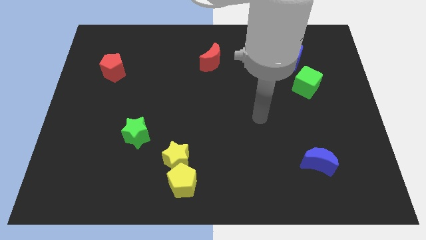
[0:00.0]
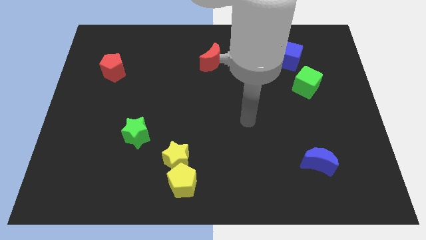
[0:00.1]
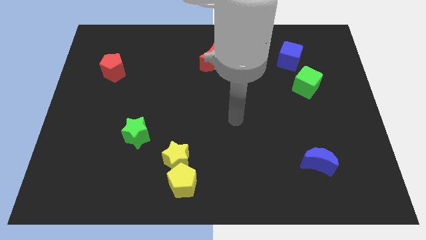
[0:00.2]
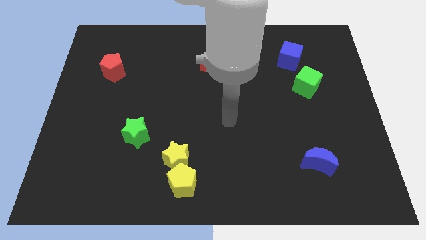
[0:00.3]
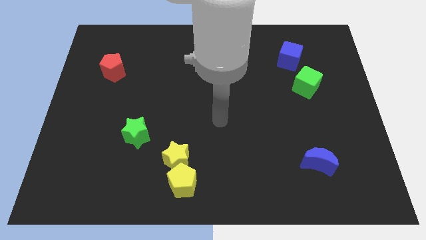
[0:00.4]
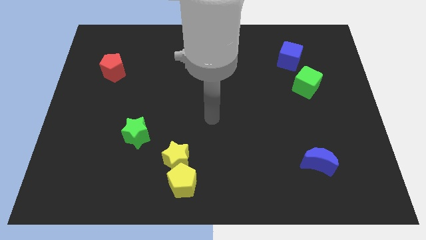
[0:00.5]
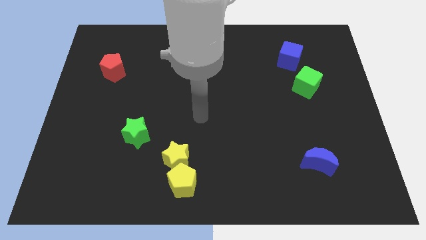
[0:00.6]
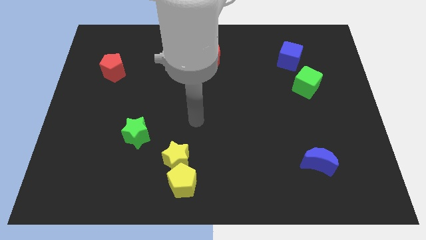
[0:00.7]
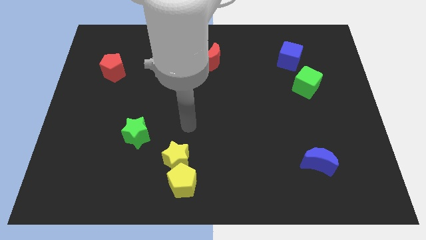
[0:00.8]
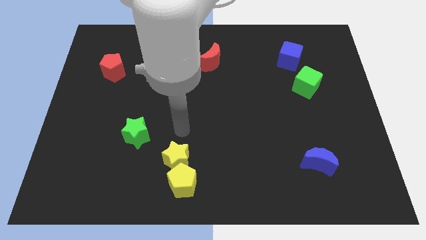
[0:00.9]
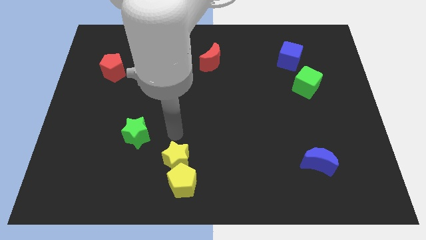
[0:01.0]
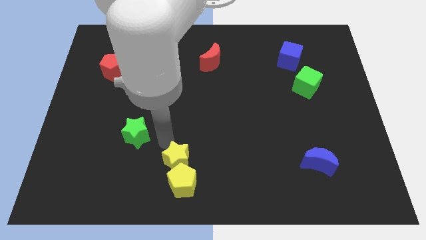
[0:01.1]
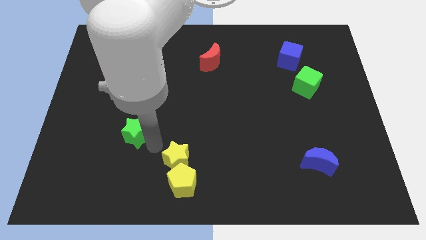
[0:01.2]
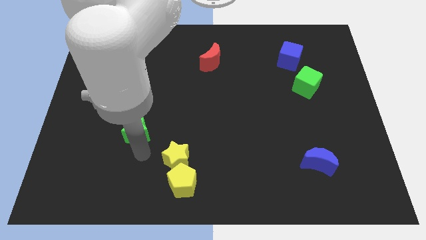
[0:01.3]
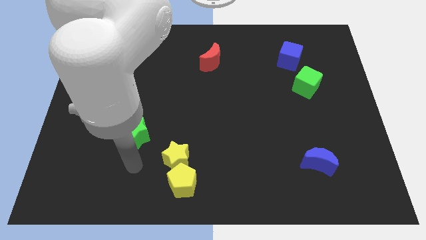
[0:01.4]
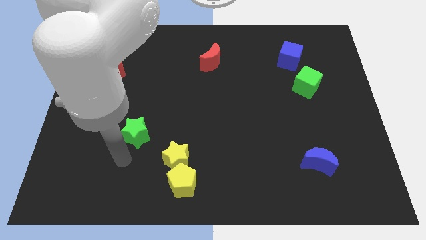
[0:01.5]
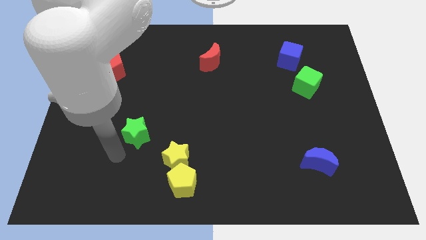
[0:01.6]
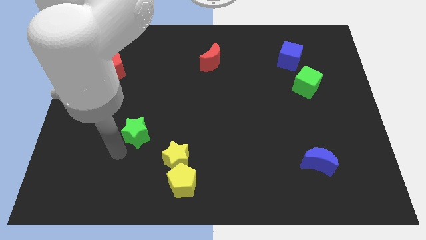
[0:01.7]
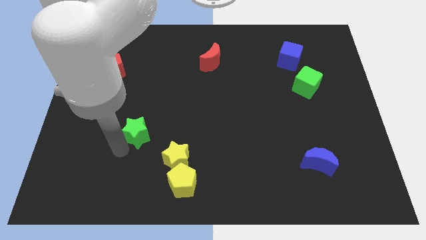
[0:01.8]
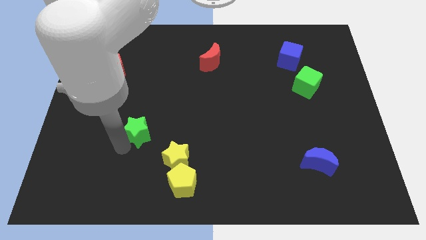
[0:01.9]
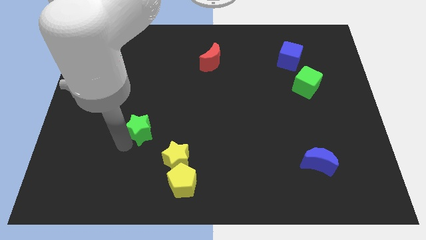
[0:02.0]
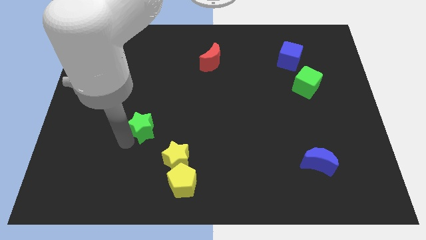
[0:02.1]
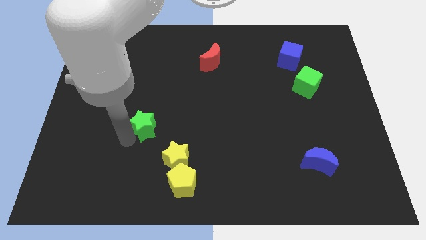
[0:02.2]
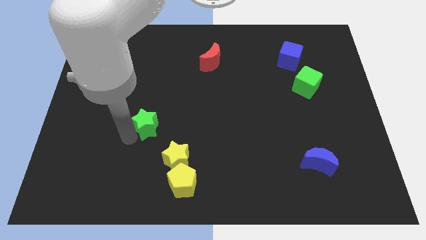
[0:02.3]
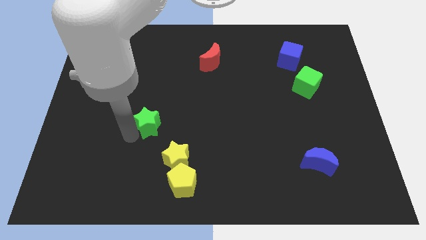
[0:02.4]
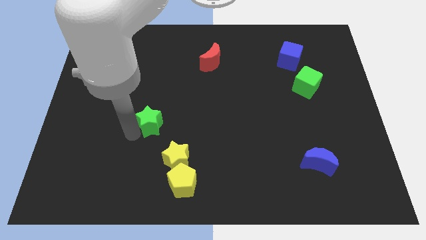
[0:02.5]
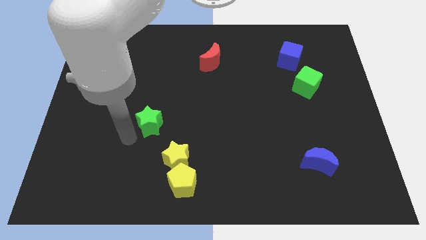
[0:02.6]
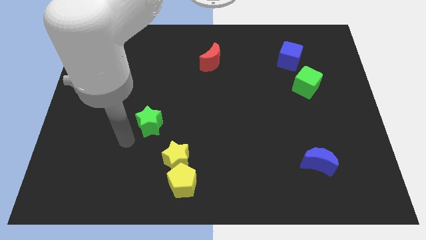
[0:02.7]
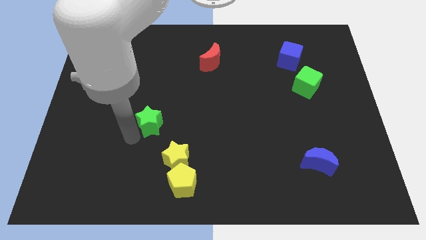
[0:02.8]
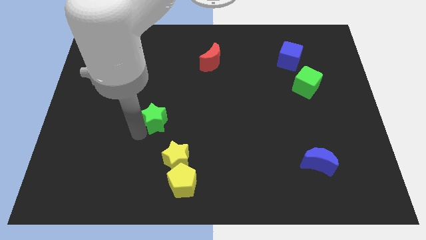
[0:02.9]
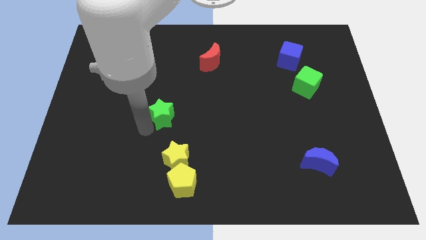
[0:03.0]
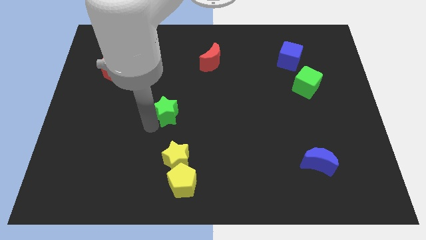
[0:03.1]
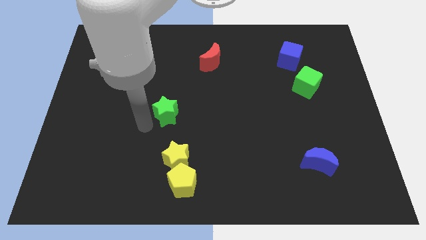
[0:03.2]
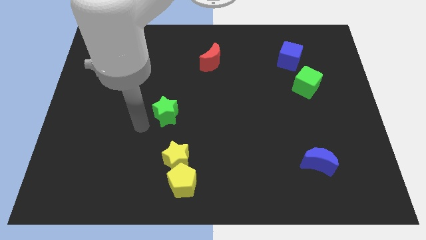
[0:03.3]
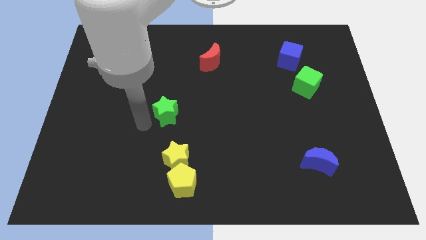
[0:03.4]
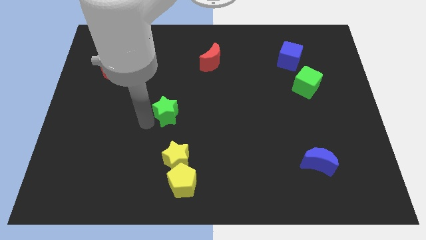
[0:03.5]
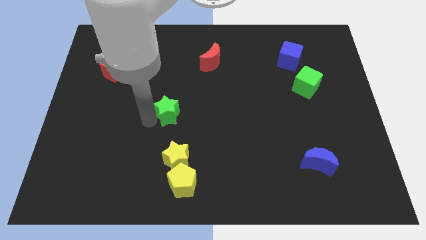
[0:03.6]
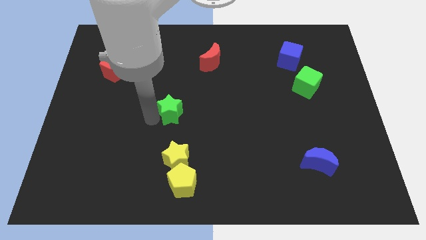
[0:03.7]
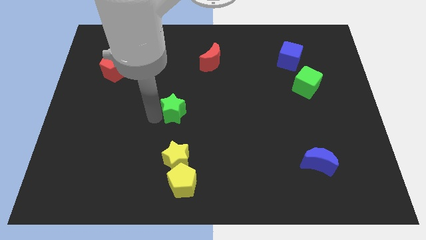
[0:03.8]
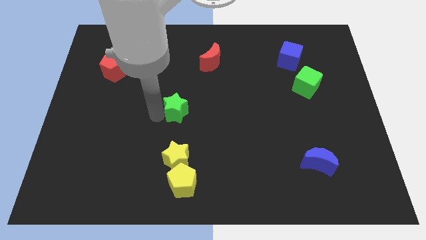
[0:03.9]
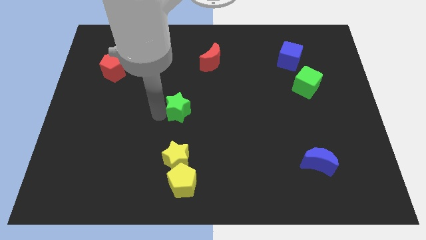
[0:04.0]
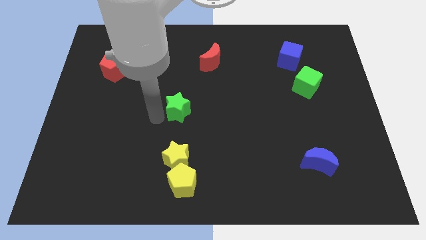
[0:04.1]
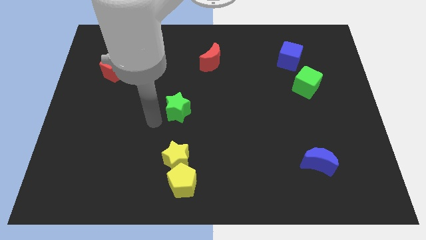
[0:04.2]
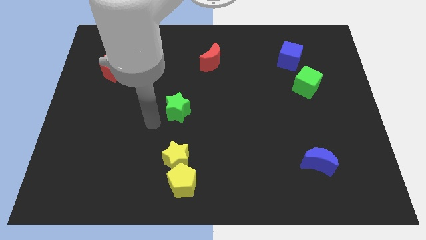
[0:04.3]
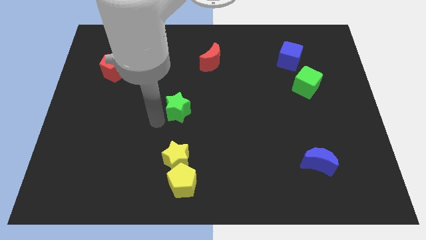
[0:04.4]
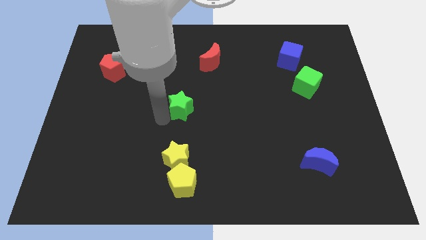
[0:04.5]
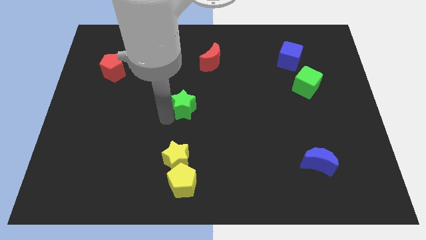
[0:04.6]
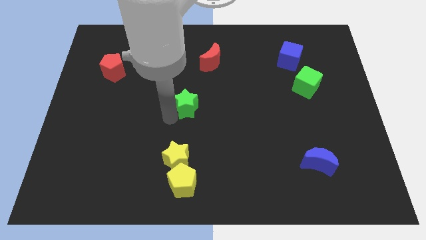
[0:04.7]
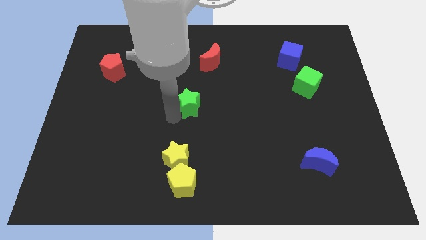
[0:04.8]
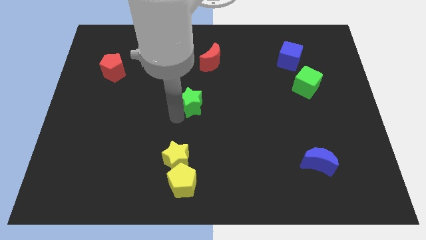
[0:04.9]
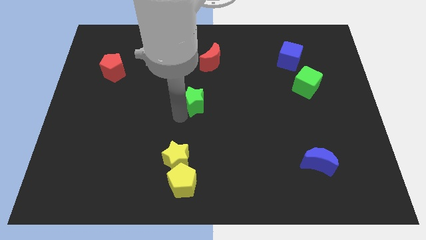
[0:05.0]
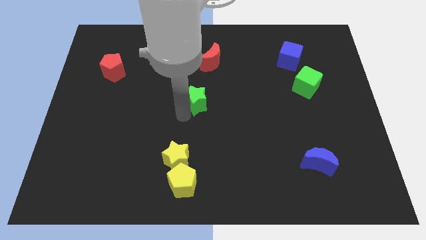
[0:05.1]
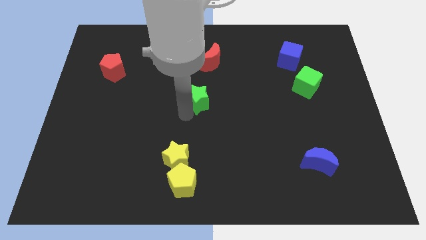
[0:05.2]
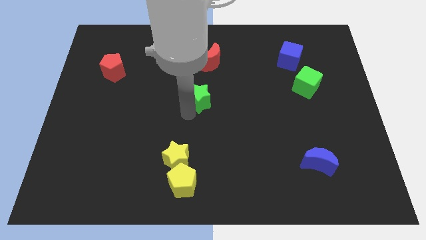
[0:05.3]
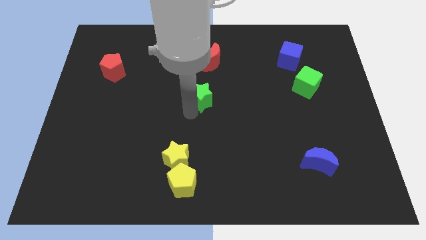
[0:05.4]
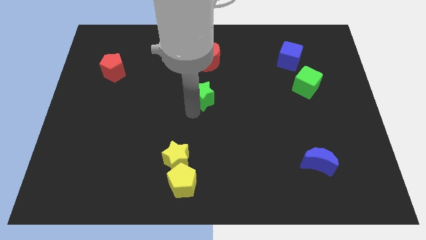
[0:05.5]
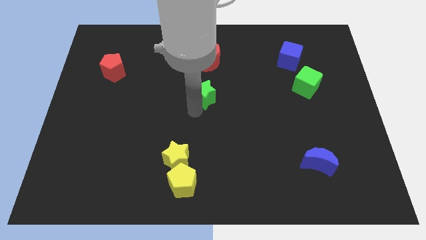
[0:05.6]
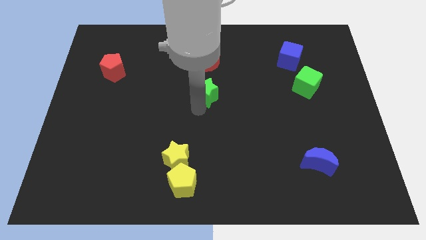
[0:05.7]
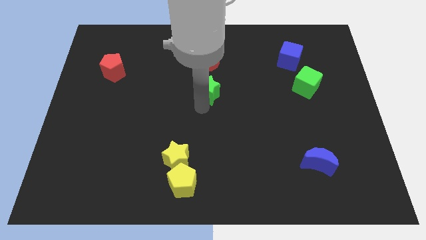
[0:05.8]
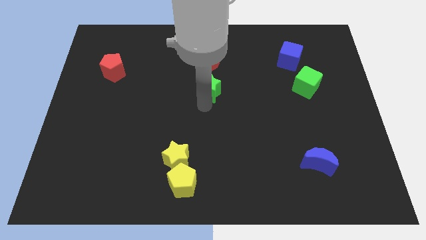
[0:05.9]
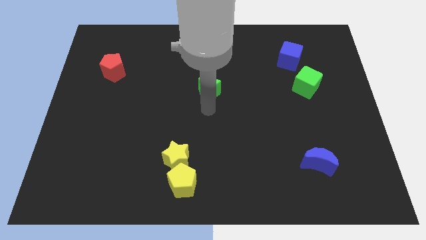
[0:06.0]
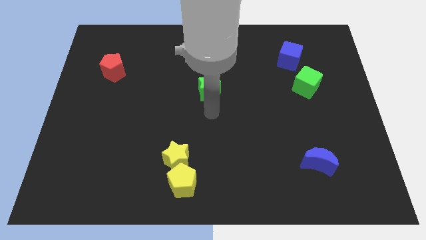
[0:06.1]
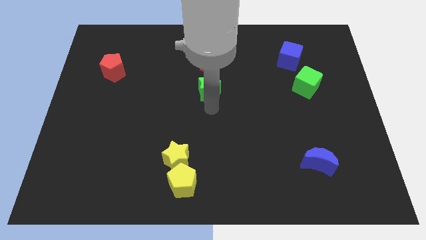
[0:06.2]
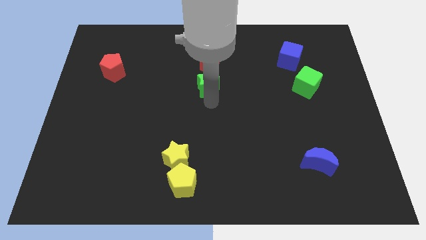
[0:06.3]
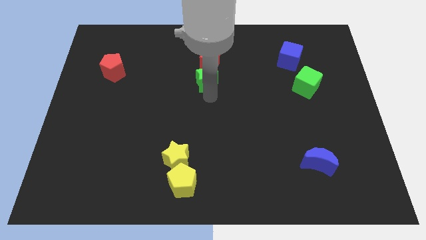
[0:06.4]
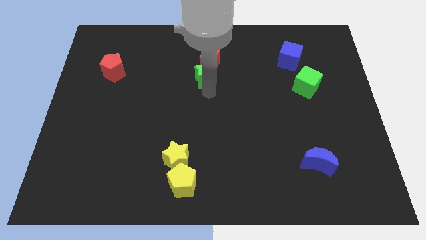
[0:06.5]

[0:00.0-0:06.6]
slide the green star close to the red moon

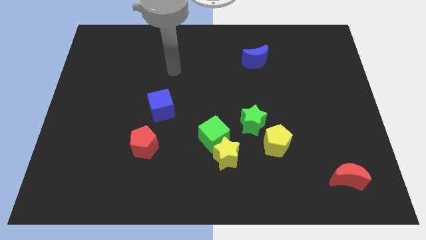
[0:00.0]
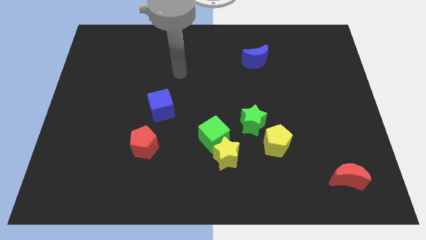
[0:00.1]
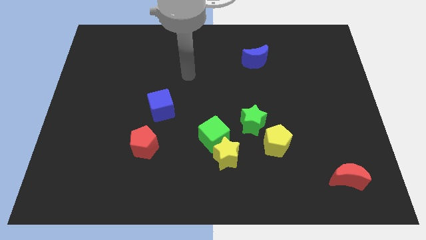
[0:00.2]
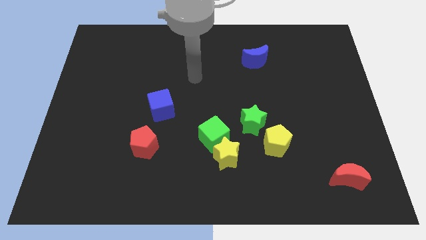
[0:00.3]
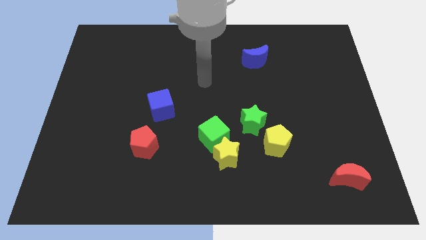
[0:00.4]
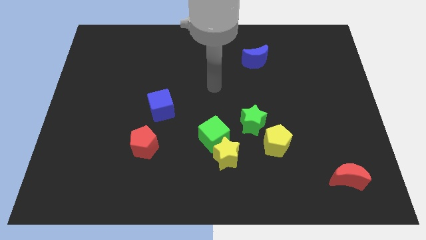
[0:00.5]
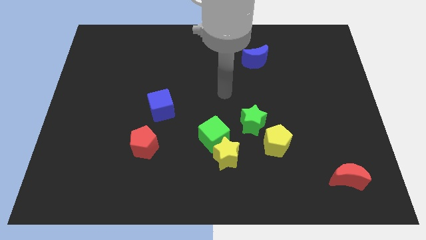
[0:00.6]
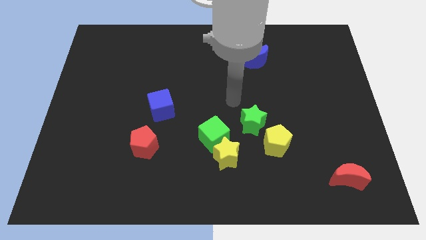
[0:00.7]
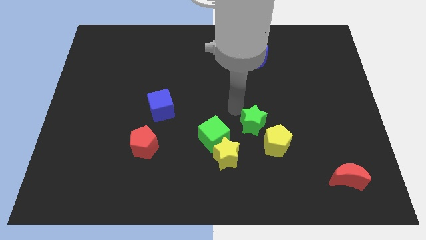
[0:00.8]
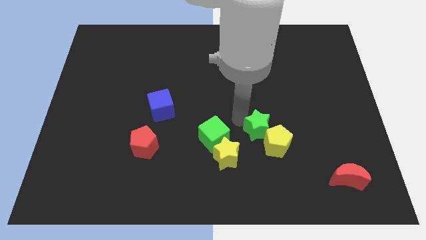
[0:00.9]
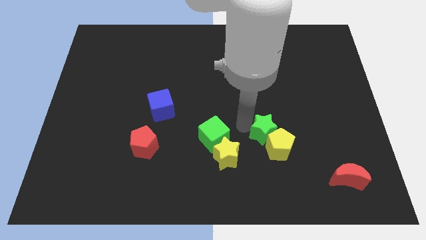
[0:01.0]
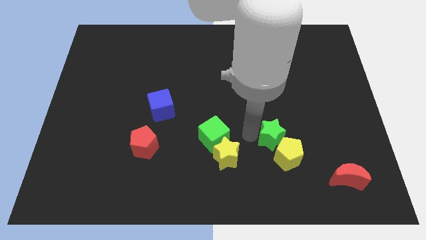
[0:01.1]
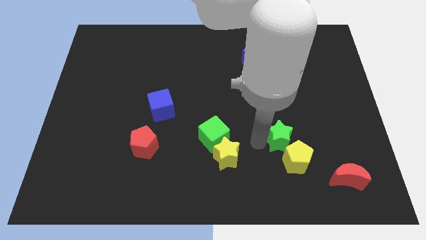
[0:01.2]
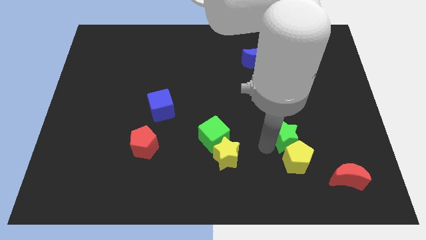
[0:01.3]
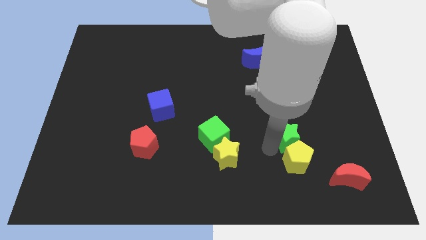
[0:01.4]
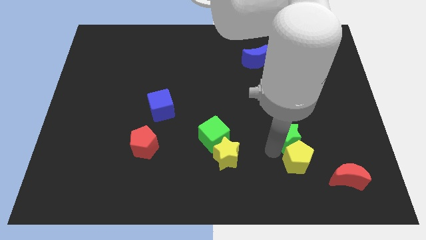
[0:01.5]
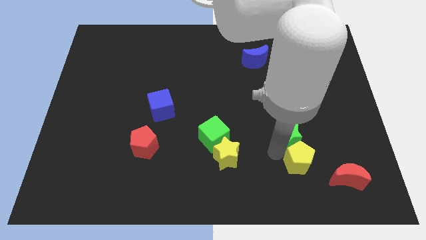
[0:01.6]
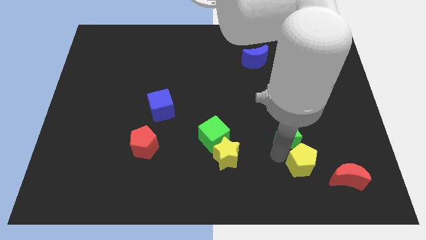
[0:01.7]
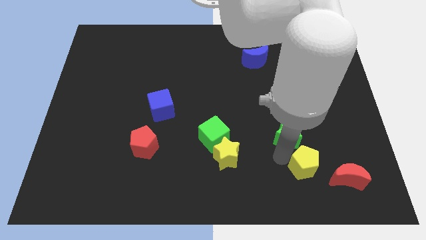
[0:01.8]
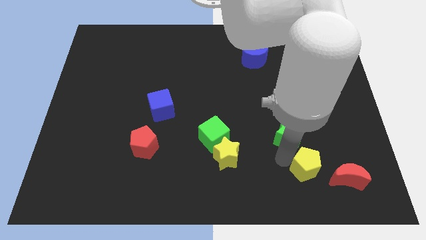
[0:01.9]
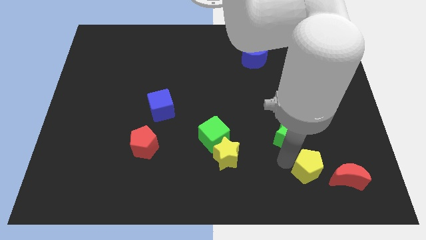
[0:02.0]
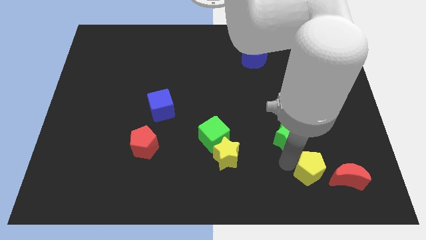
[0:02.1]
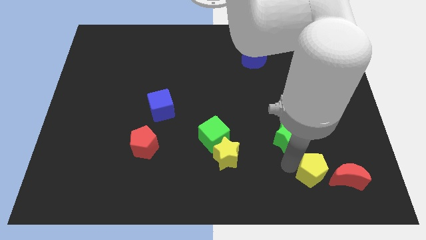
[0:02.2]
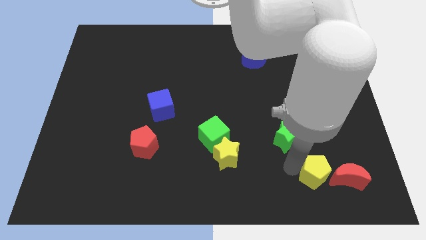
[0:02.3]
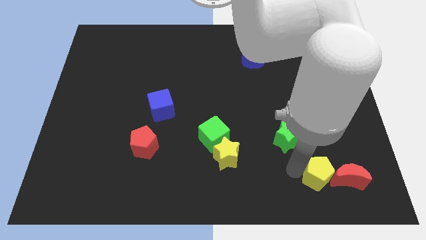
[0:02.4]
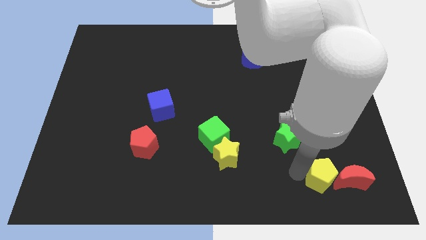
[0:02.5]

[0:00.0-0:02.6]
move the yellow pentagon next to the red moon
